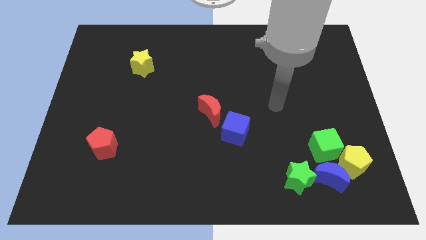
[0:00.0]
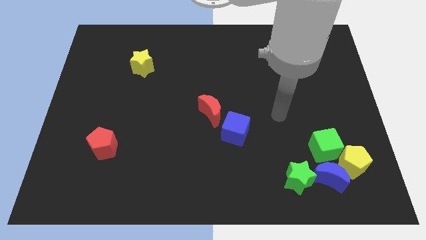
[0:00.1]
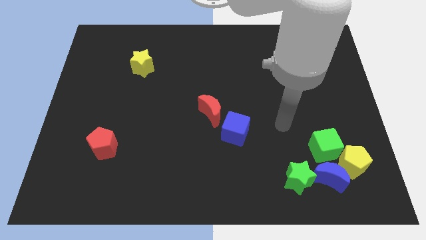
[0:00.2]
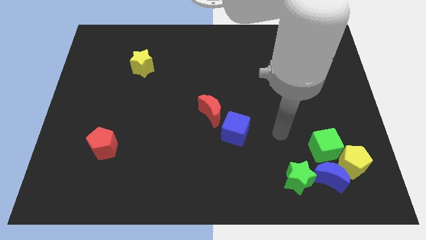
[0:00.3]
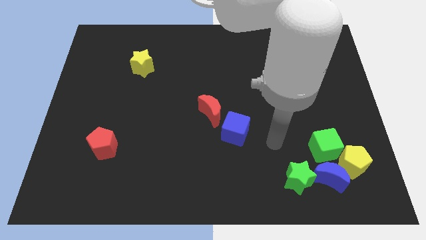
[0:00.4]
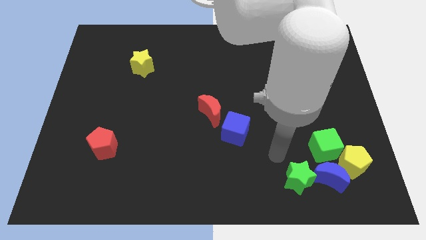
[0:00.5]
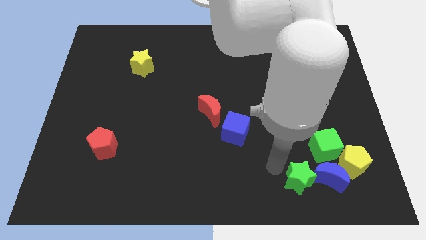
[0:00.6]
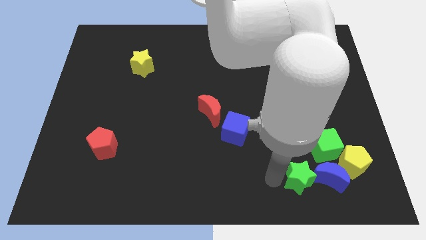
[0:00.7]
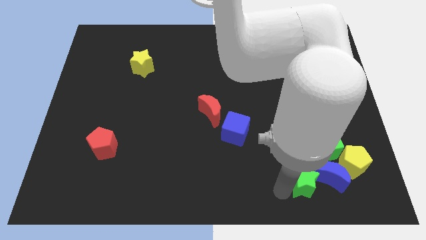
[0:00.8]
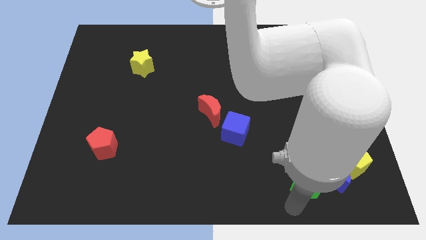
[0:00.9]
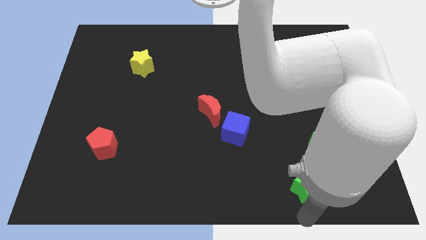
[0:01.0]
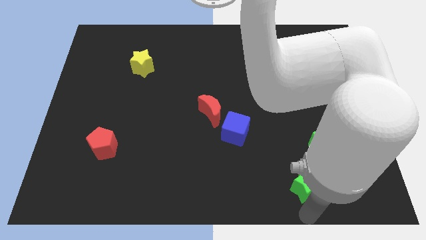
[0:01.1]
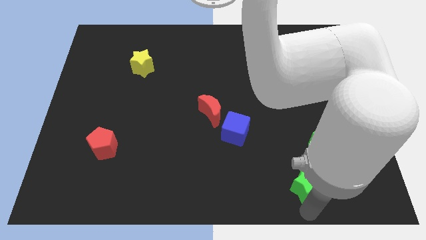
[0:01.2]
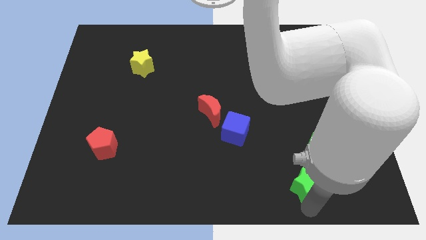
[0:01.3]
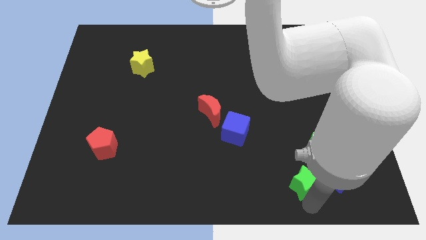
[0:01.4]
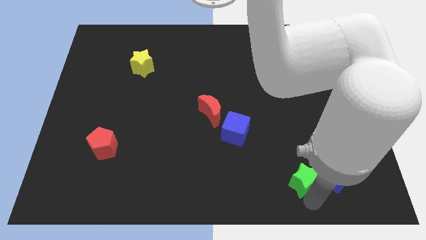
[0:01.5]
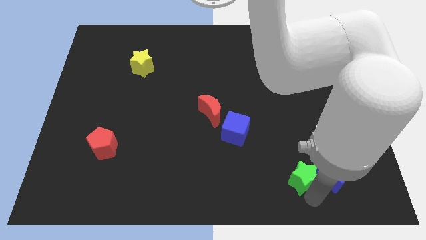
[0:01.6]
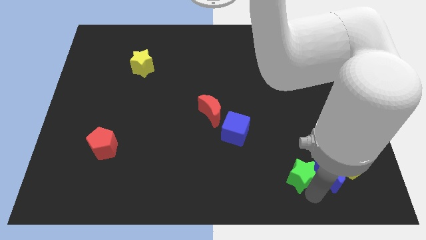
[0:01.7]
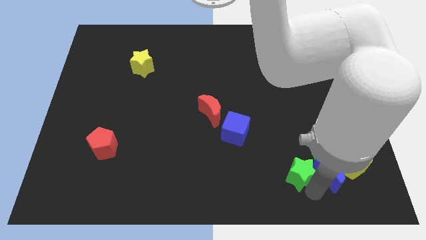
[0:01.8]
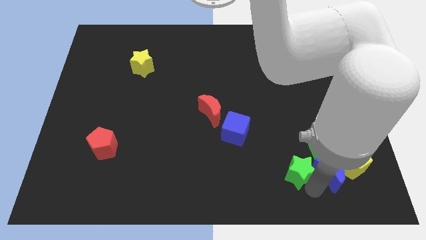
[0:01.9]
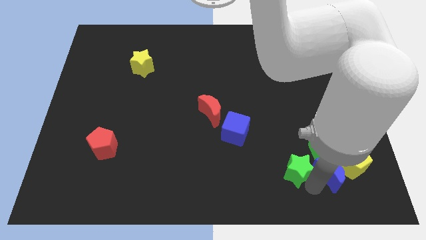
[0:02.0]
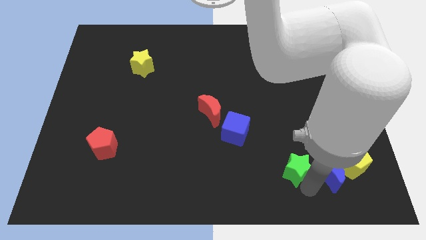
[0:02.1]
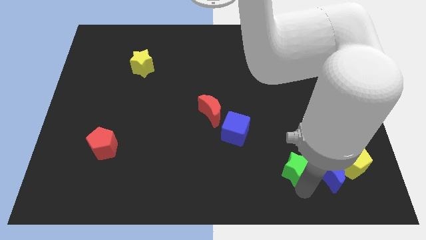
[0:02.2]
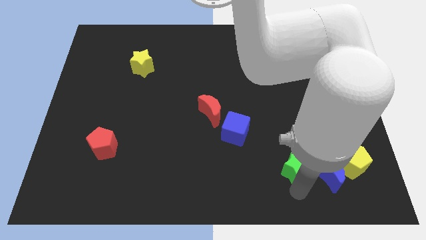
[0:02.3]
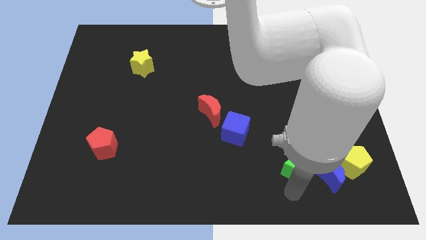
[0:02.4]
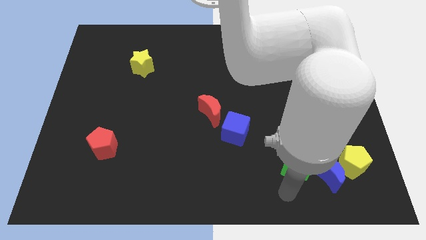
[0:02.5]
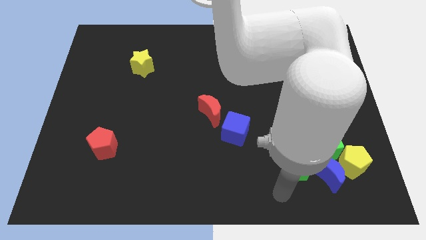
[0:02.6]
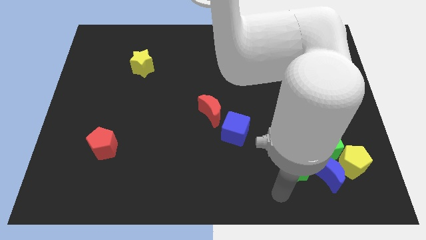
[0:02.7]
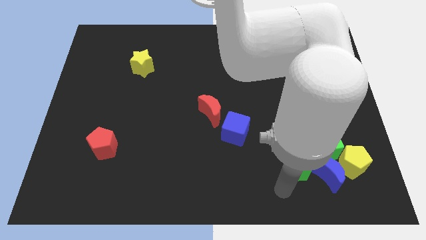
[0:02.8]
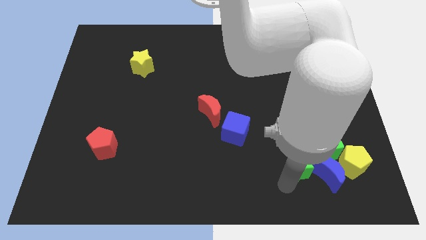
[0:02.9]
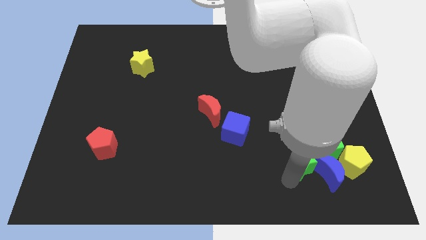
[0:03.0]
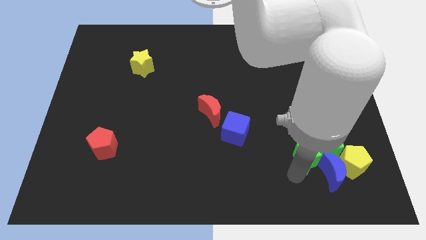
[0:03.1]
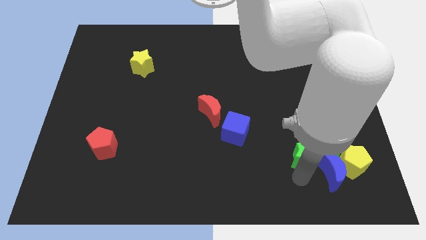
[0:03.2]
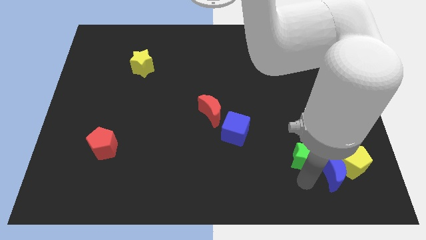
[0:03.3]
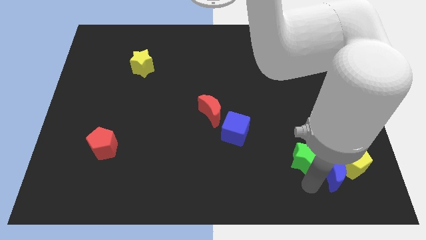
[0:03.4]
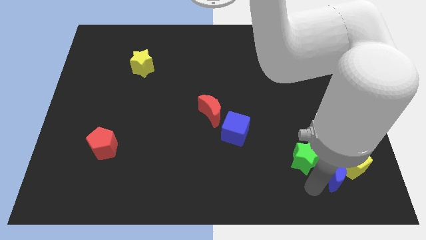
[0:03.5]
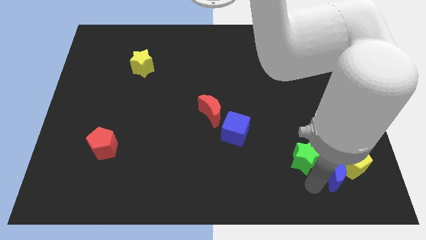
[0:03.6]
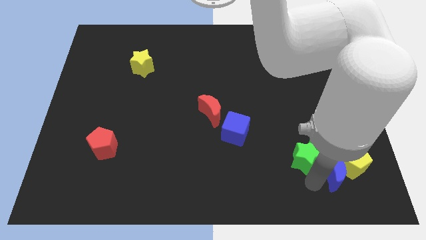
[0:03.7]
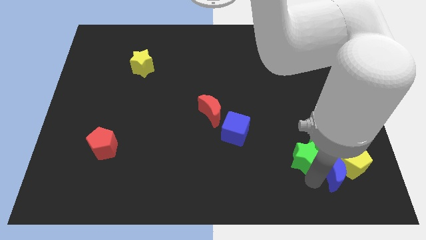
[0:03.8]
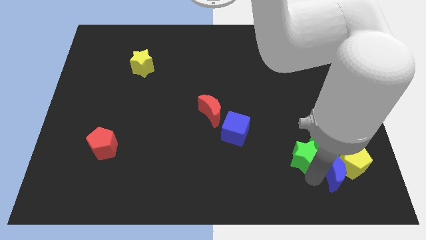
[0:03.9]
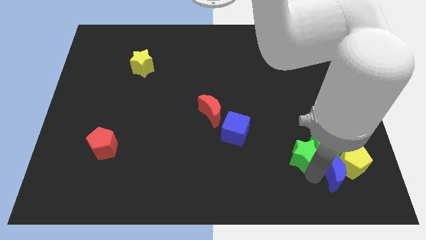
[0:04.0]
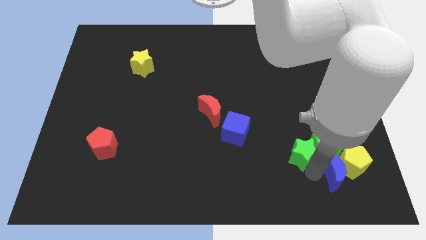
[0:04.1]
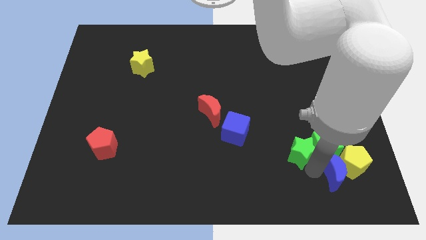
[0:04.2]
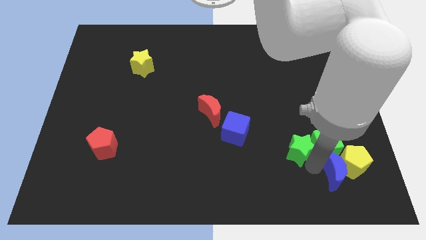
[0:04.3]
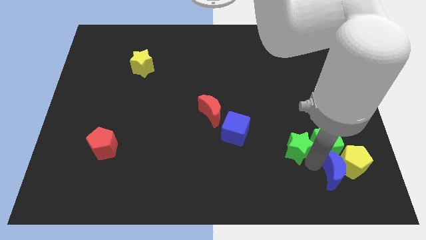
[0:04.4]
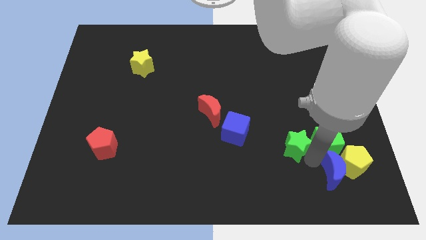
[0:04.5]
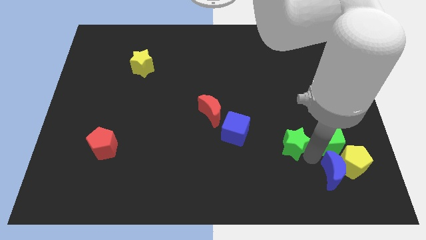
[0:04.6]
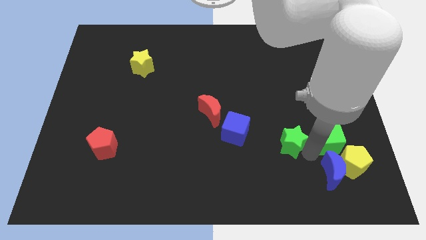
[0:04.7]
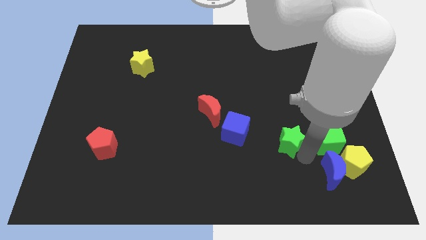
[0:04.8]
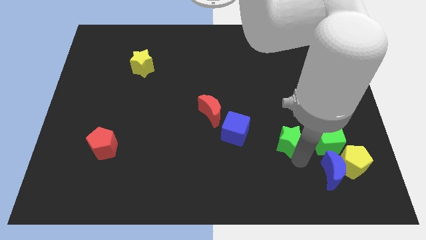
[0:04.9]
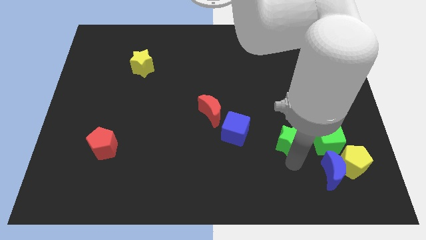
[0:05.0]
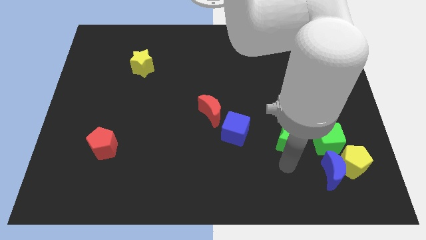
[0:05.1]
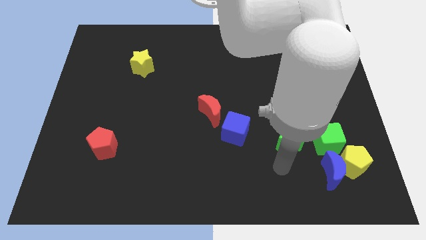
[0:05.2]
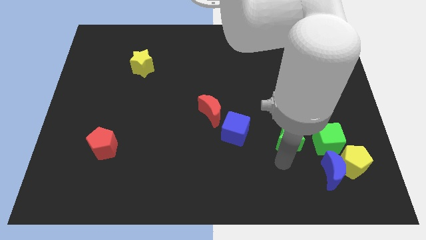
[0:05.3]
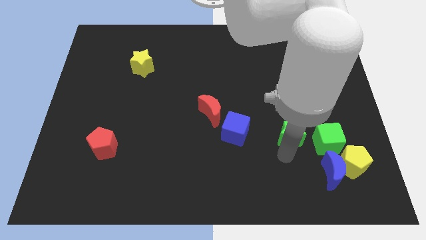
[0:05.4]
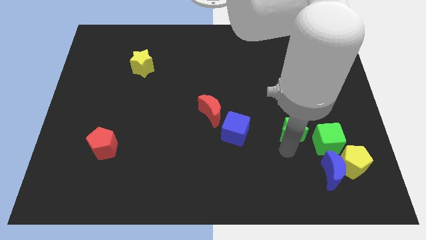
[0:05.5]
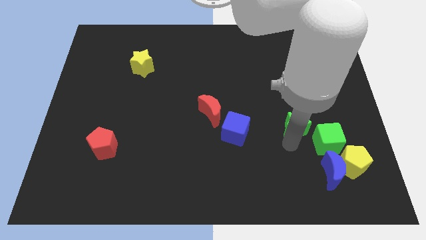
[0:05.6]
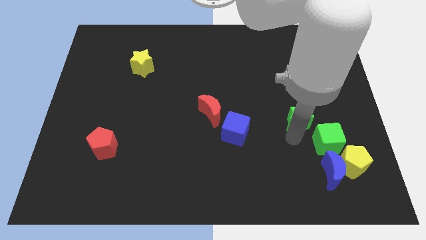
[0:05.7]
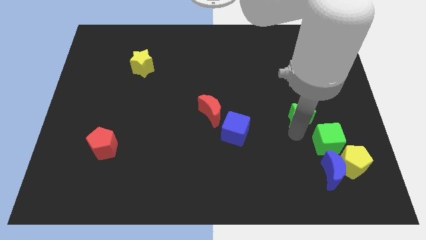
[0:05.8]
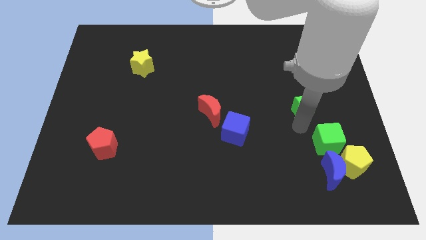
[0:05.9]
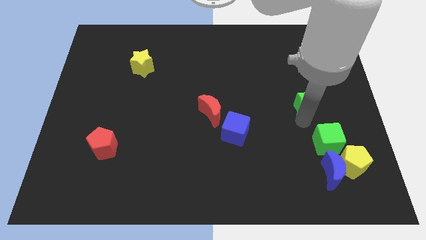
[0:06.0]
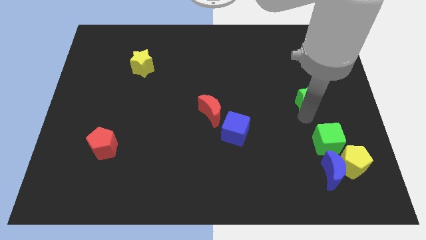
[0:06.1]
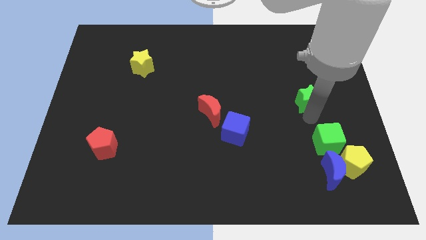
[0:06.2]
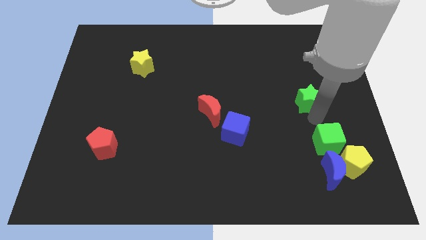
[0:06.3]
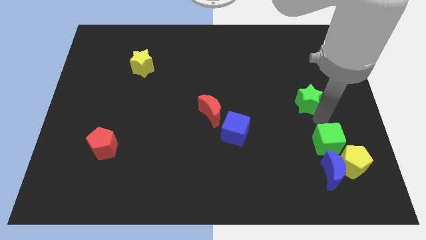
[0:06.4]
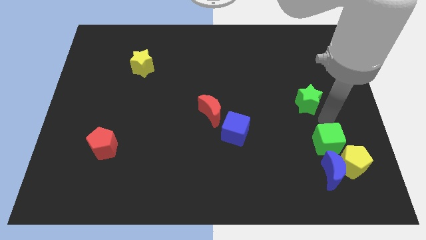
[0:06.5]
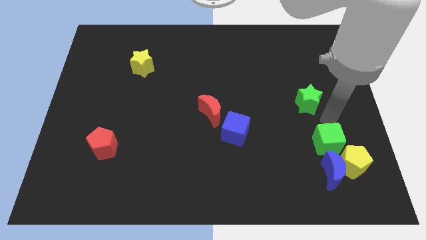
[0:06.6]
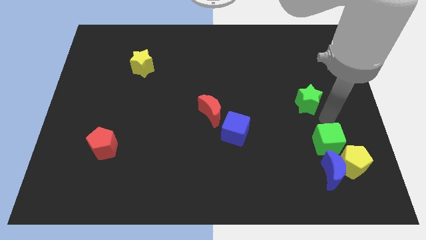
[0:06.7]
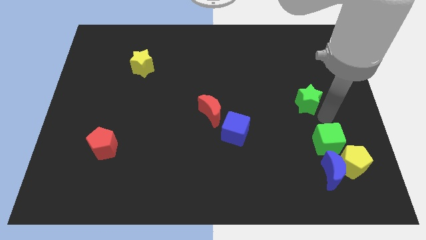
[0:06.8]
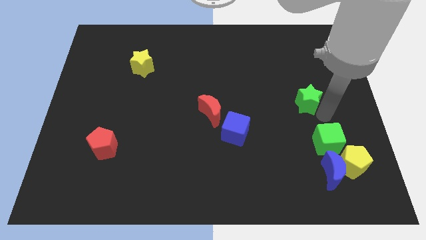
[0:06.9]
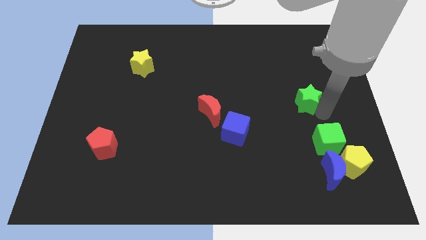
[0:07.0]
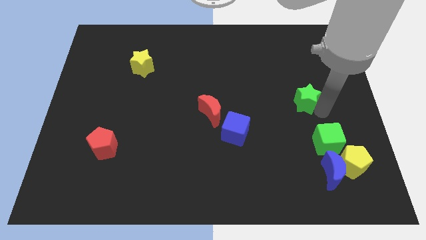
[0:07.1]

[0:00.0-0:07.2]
move the green star upwards

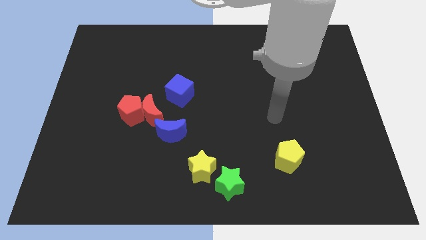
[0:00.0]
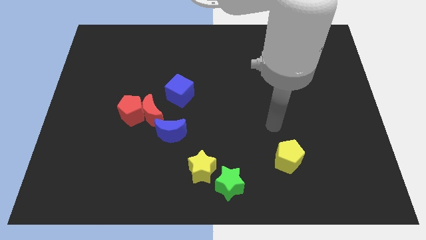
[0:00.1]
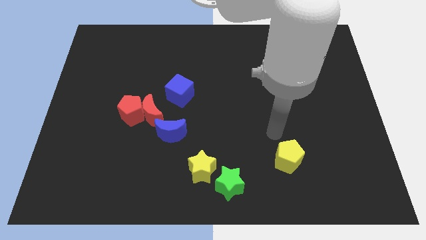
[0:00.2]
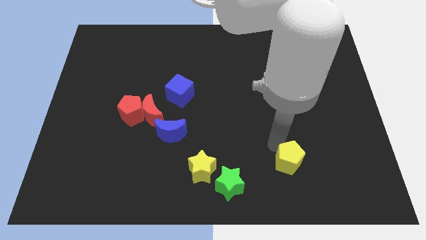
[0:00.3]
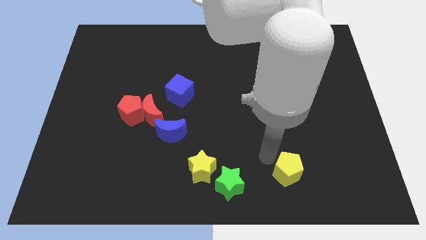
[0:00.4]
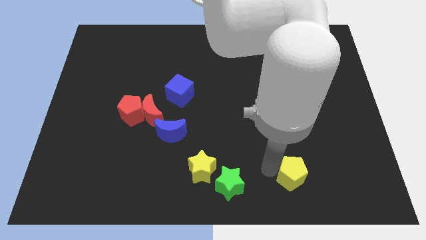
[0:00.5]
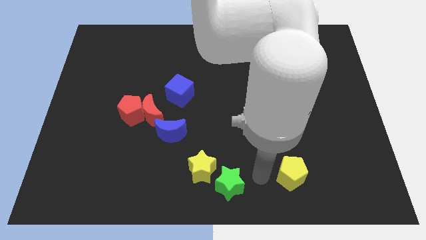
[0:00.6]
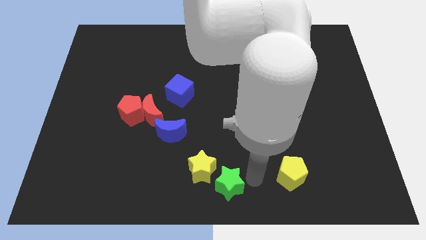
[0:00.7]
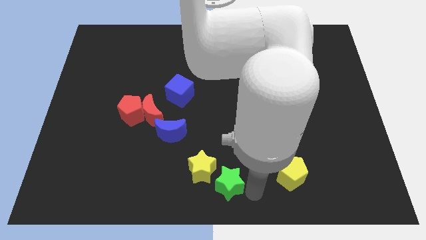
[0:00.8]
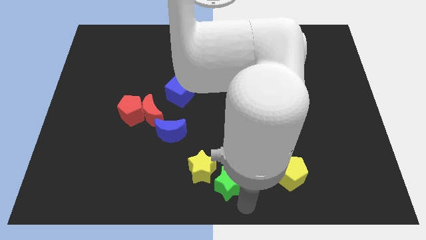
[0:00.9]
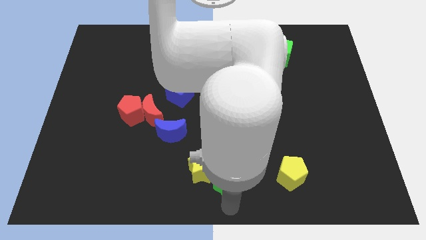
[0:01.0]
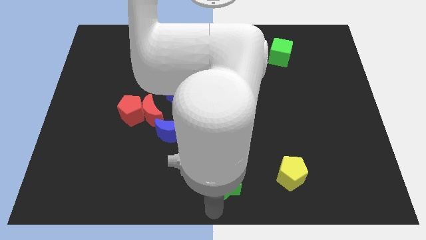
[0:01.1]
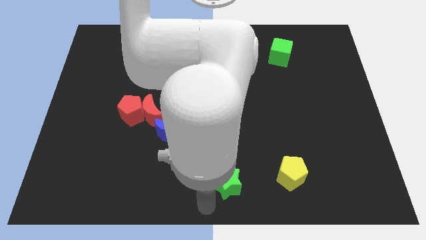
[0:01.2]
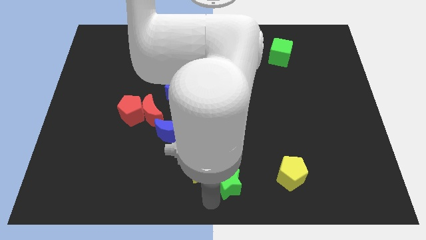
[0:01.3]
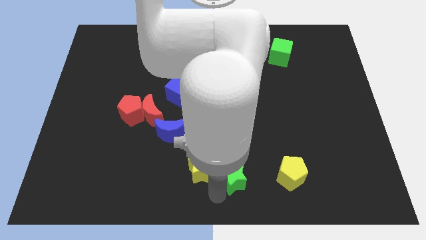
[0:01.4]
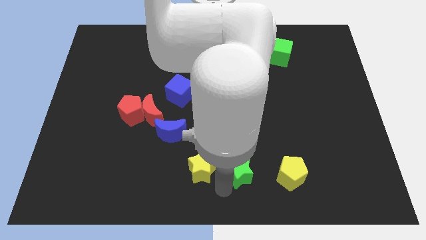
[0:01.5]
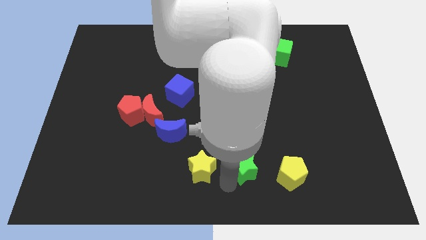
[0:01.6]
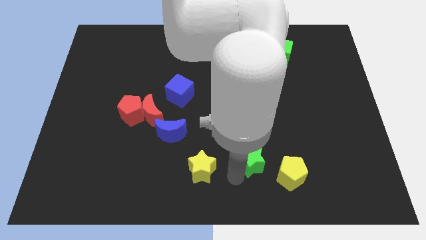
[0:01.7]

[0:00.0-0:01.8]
slightly push the green star up and to the right diagonally
